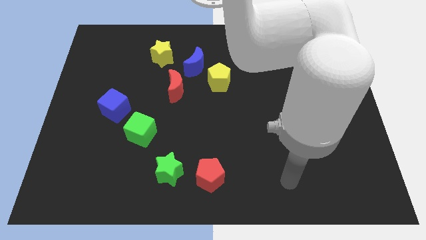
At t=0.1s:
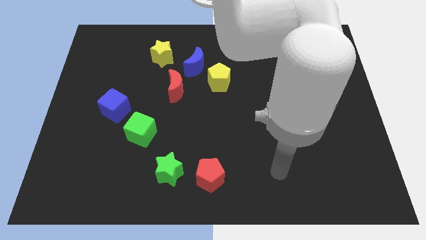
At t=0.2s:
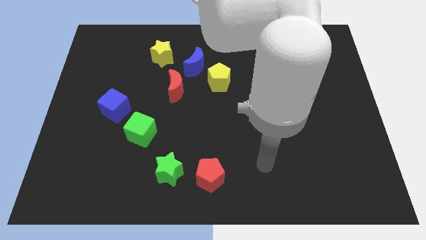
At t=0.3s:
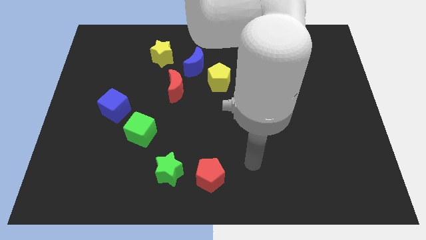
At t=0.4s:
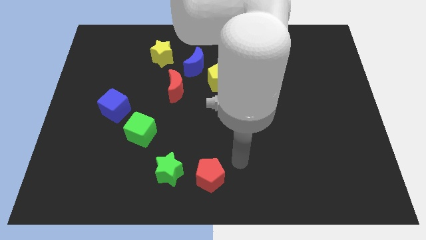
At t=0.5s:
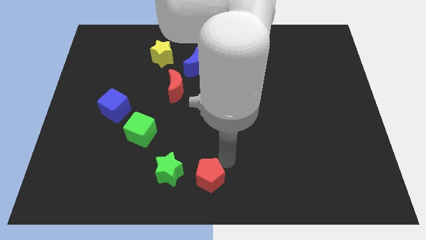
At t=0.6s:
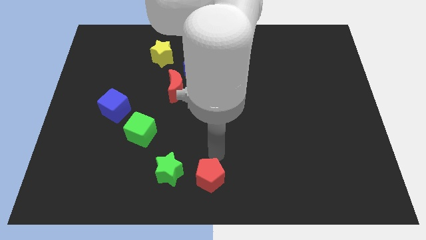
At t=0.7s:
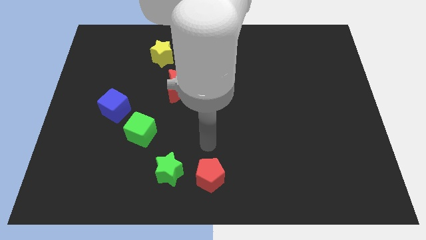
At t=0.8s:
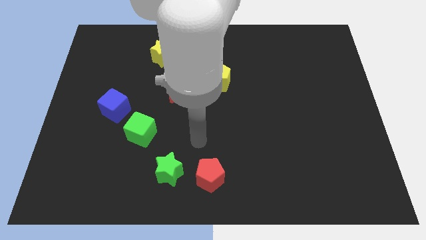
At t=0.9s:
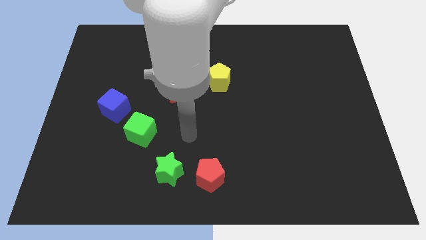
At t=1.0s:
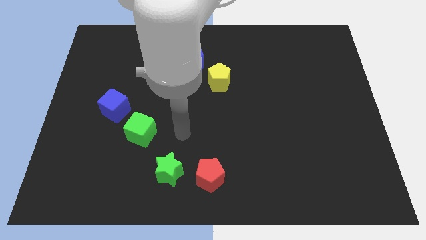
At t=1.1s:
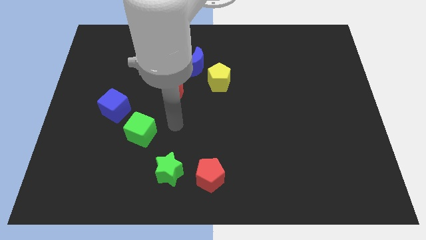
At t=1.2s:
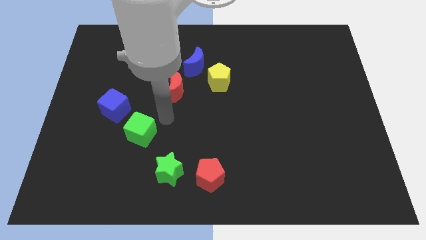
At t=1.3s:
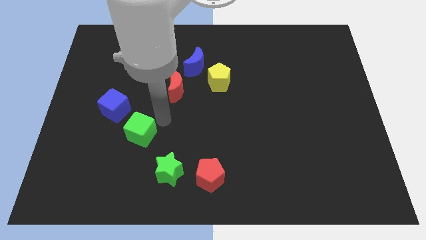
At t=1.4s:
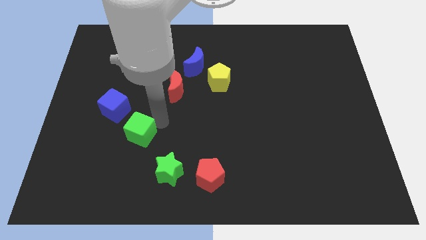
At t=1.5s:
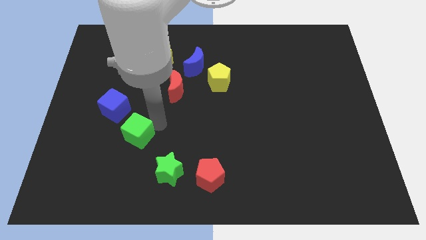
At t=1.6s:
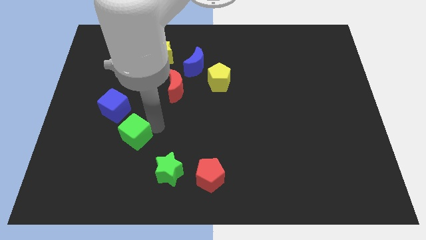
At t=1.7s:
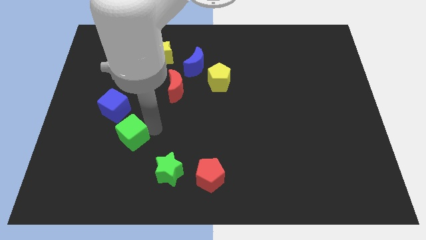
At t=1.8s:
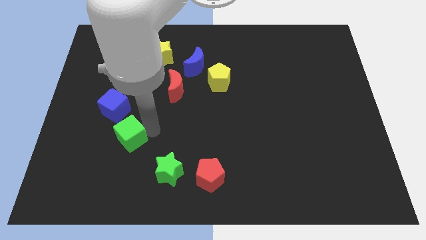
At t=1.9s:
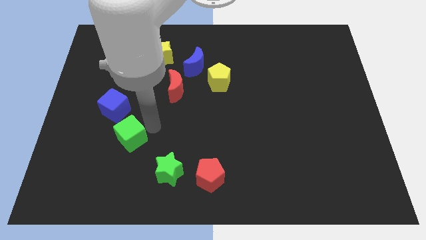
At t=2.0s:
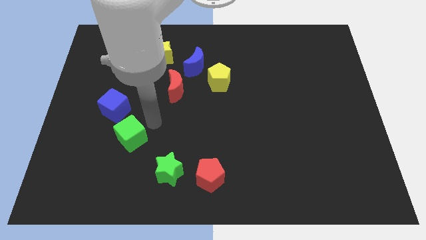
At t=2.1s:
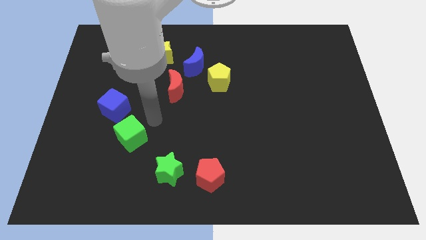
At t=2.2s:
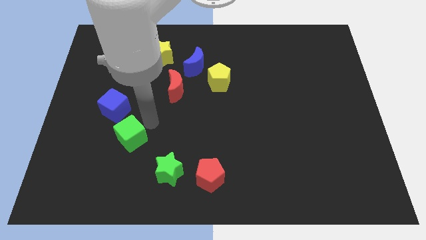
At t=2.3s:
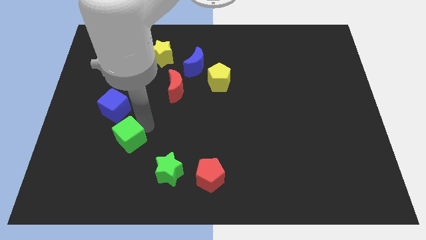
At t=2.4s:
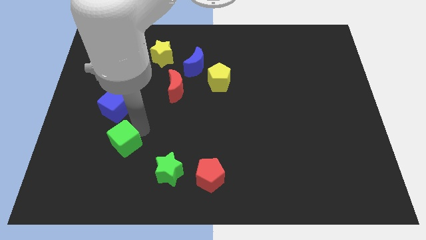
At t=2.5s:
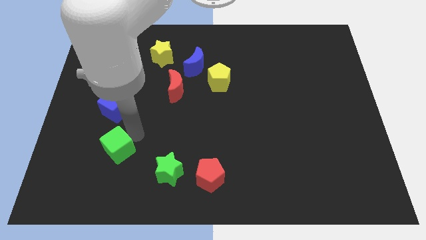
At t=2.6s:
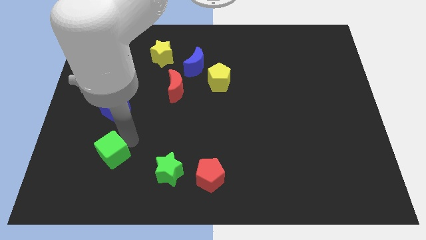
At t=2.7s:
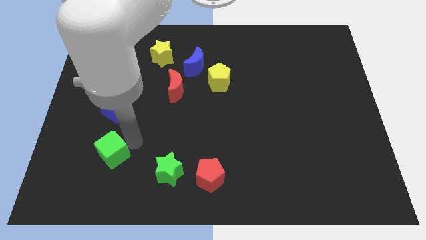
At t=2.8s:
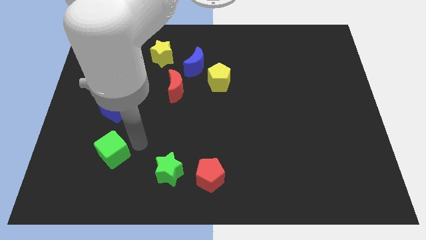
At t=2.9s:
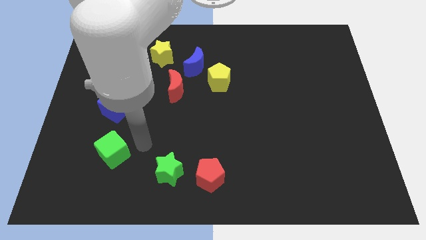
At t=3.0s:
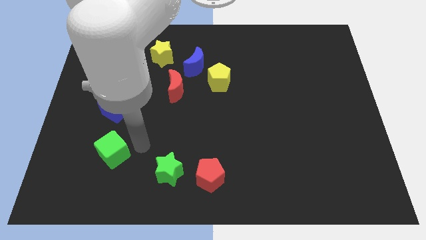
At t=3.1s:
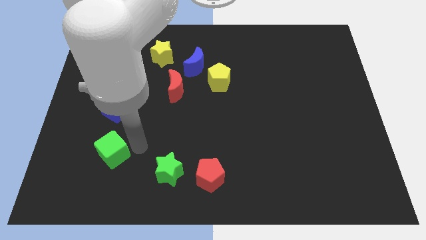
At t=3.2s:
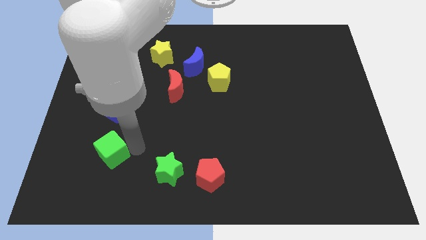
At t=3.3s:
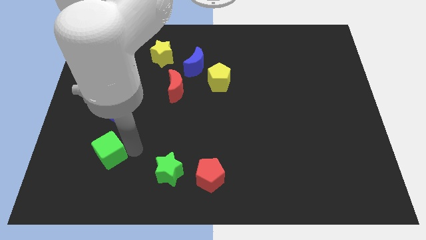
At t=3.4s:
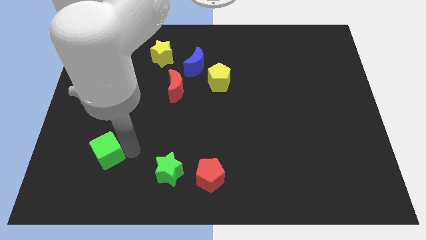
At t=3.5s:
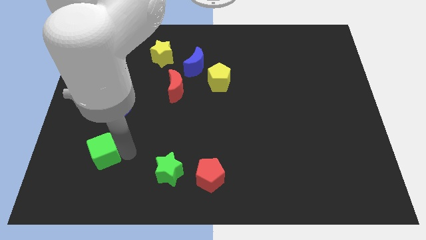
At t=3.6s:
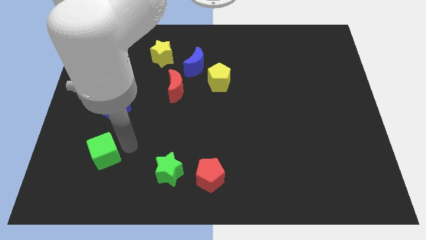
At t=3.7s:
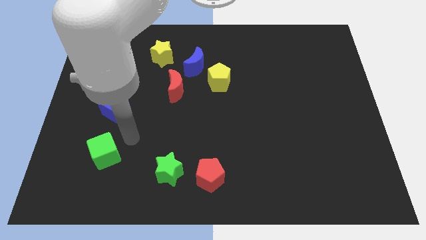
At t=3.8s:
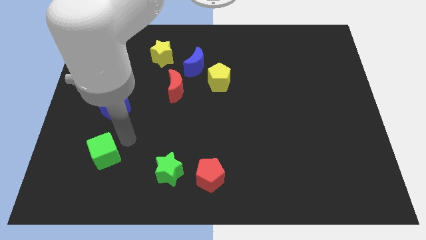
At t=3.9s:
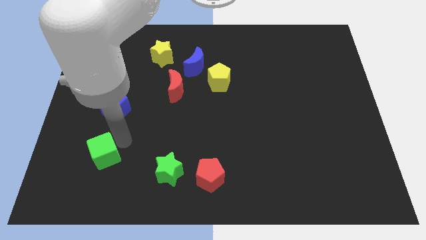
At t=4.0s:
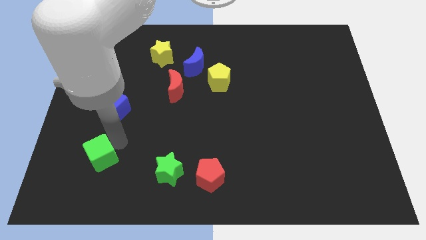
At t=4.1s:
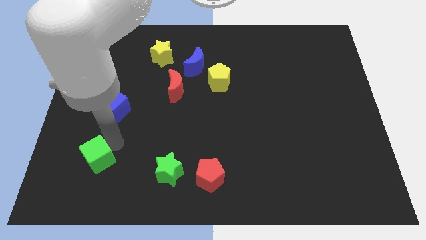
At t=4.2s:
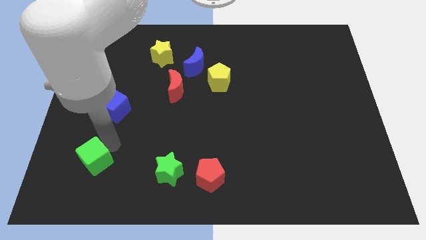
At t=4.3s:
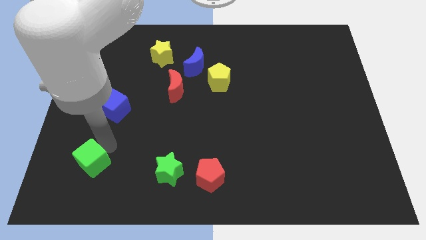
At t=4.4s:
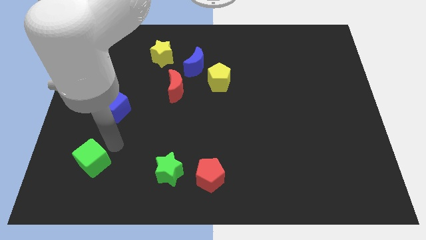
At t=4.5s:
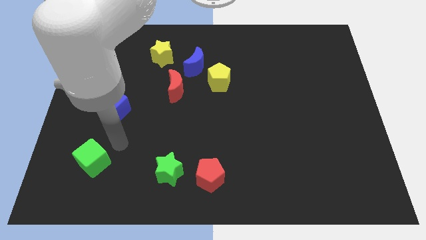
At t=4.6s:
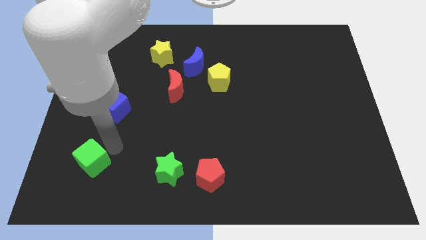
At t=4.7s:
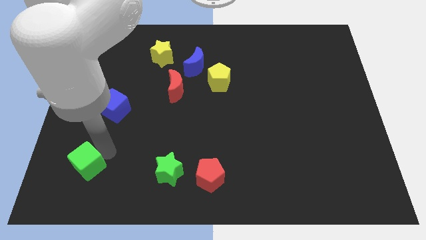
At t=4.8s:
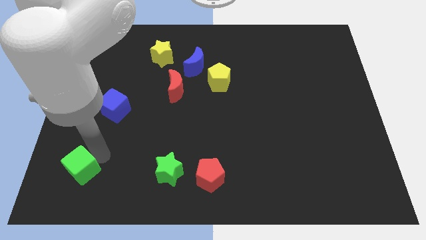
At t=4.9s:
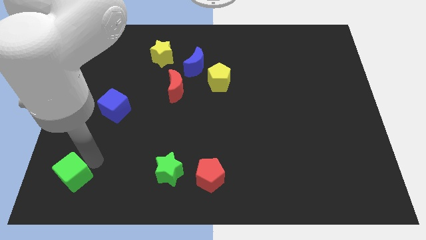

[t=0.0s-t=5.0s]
put the green cube to the bottom left

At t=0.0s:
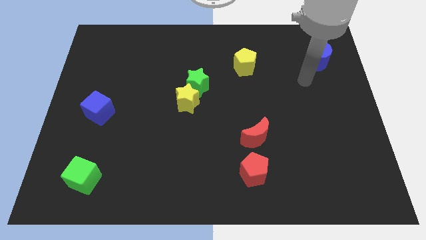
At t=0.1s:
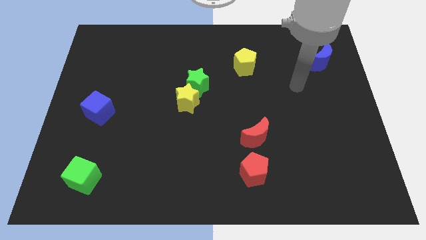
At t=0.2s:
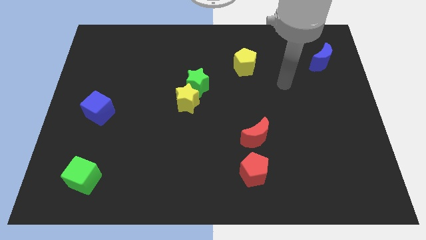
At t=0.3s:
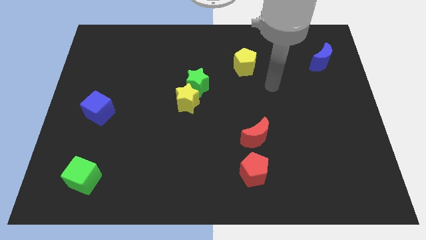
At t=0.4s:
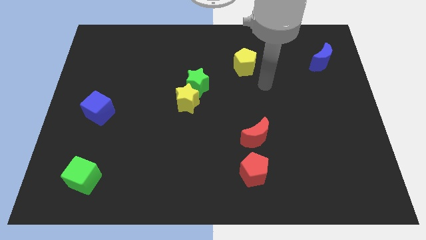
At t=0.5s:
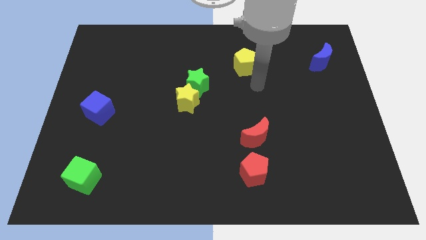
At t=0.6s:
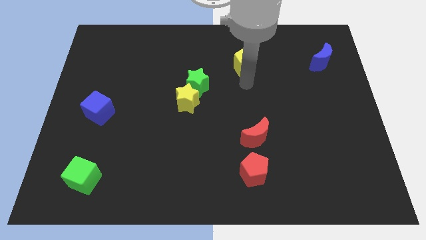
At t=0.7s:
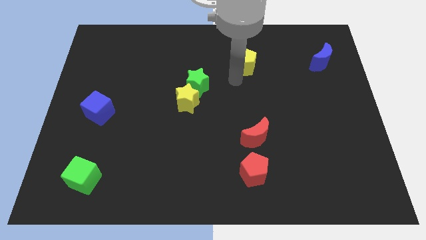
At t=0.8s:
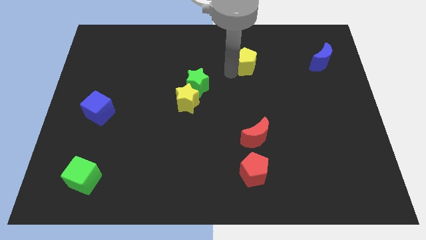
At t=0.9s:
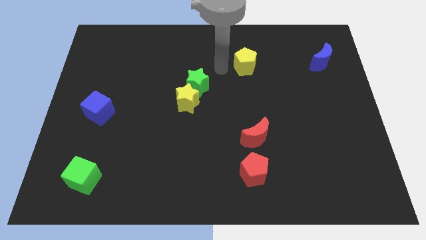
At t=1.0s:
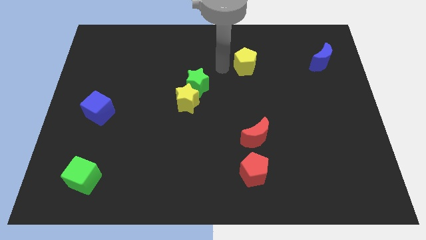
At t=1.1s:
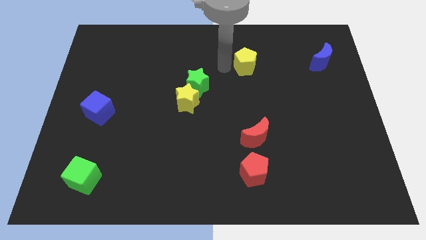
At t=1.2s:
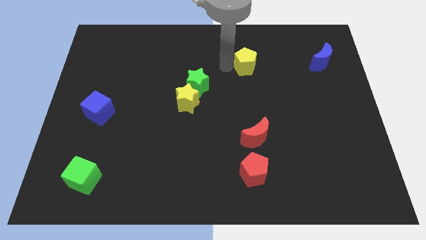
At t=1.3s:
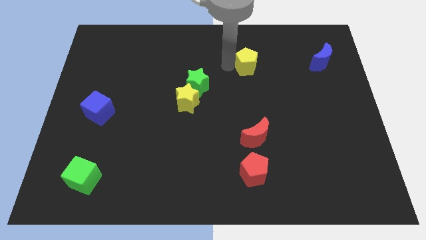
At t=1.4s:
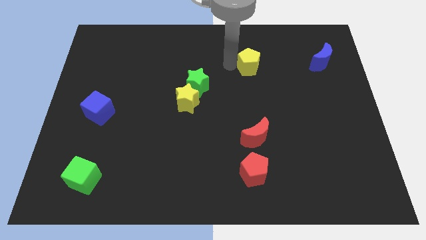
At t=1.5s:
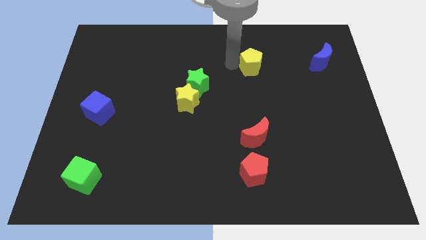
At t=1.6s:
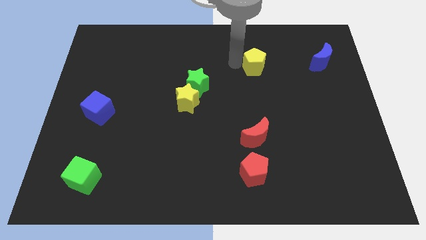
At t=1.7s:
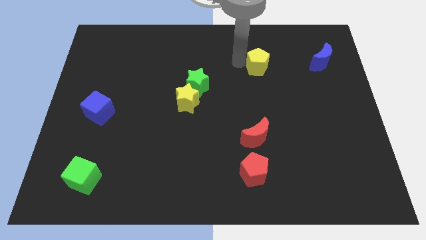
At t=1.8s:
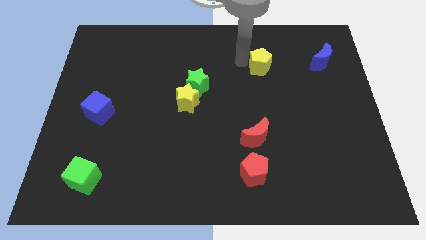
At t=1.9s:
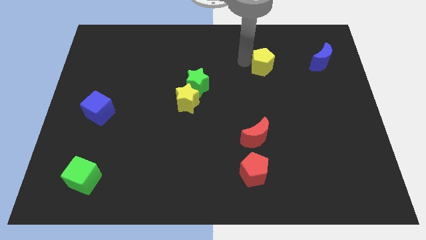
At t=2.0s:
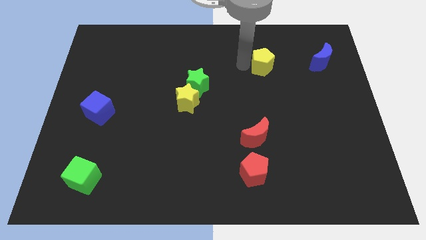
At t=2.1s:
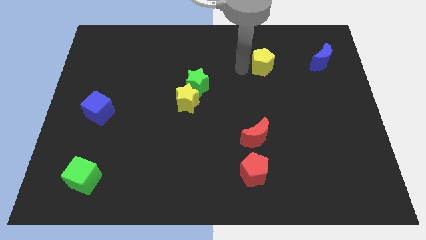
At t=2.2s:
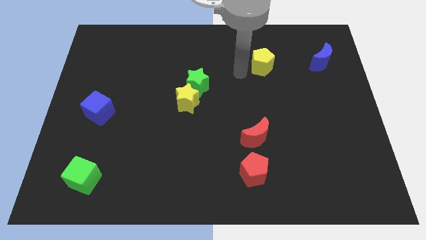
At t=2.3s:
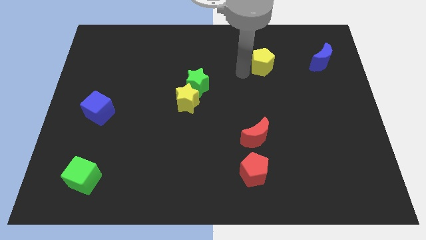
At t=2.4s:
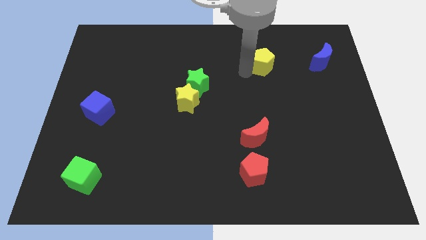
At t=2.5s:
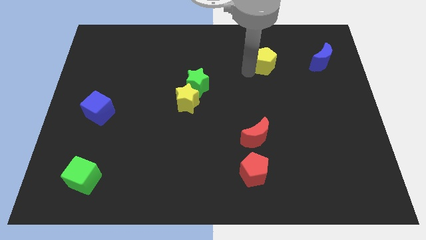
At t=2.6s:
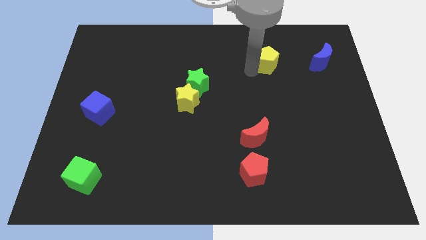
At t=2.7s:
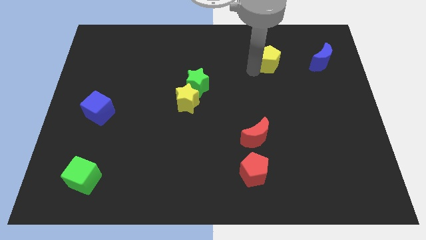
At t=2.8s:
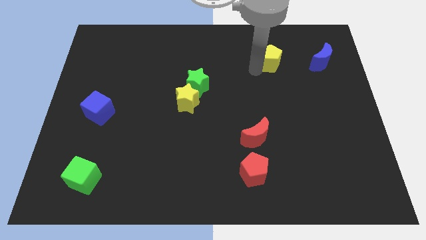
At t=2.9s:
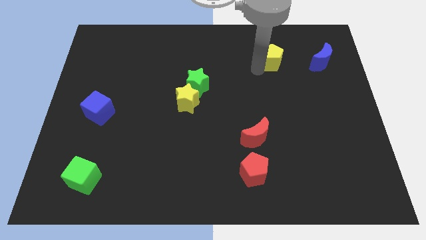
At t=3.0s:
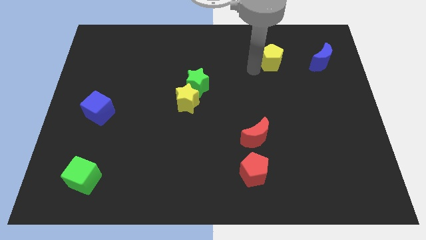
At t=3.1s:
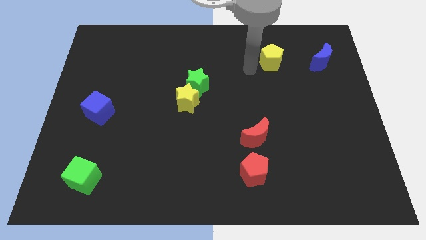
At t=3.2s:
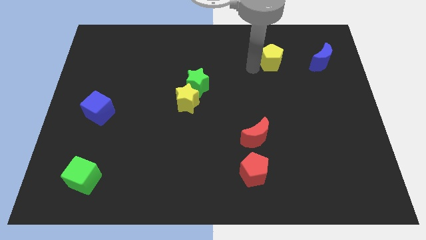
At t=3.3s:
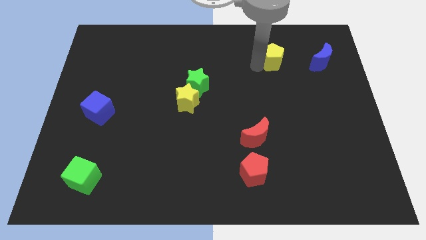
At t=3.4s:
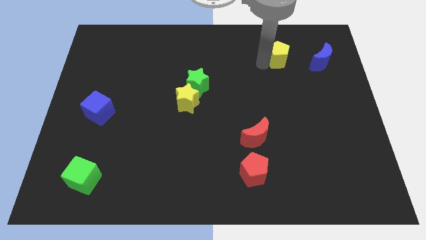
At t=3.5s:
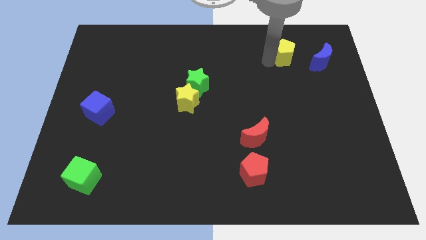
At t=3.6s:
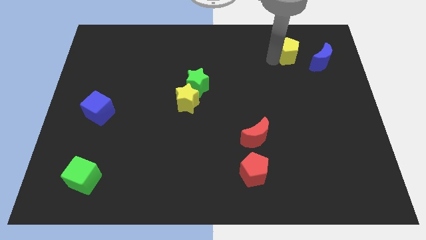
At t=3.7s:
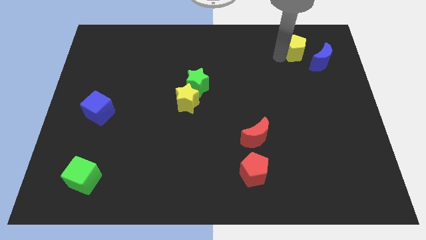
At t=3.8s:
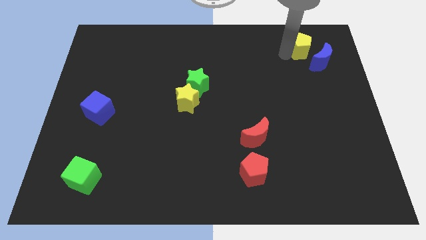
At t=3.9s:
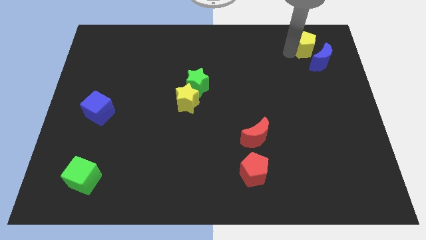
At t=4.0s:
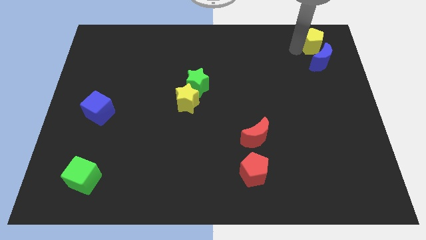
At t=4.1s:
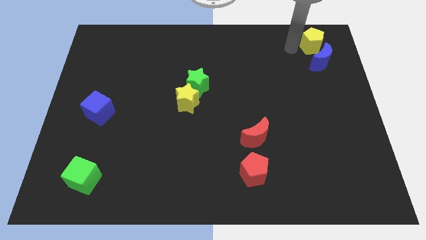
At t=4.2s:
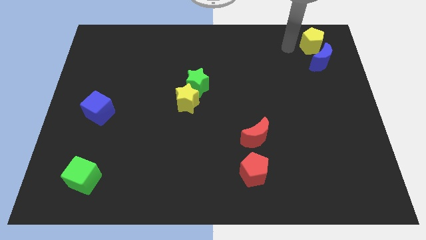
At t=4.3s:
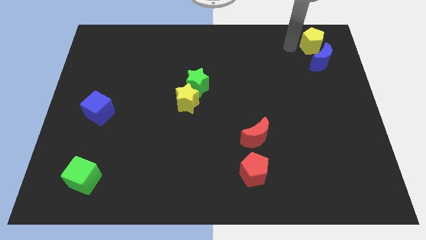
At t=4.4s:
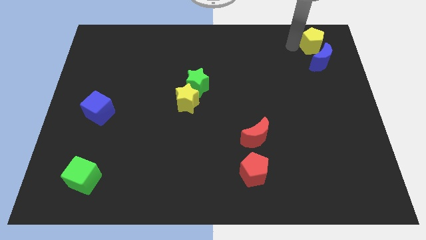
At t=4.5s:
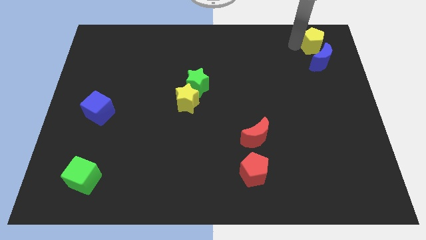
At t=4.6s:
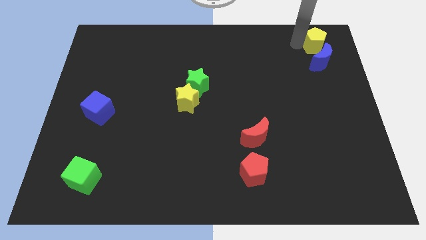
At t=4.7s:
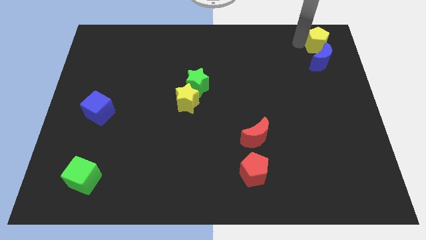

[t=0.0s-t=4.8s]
move the yellow pentagon to the top right corner
